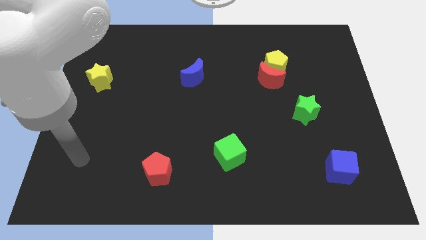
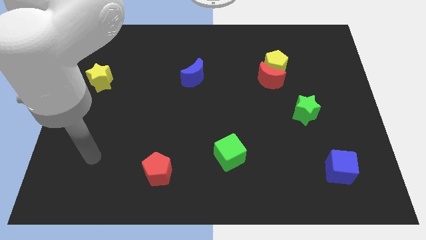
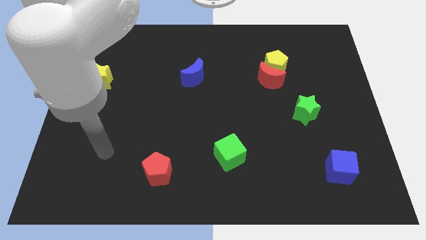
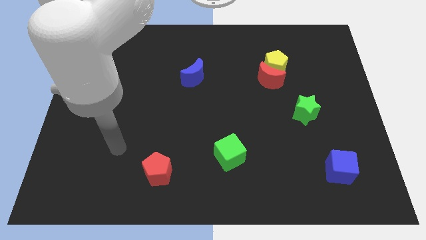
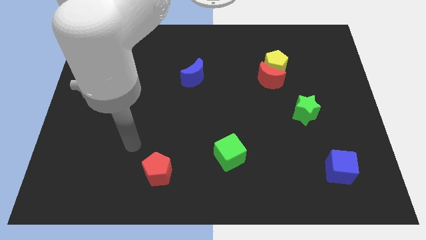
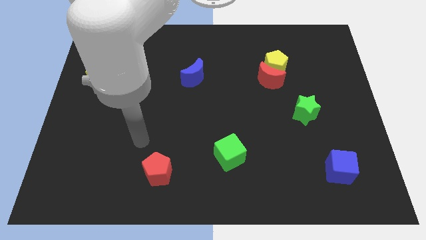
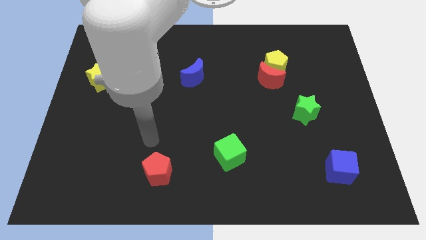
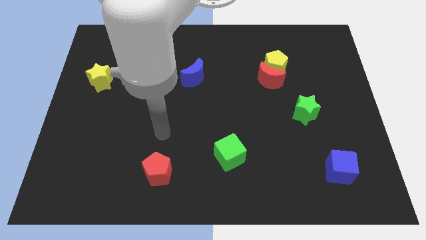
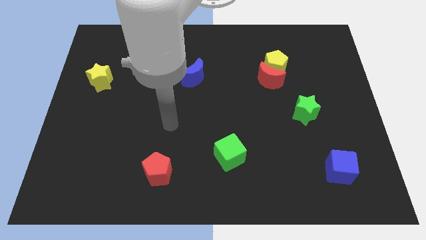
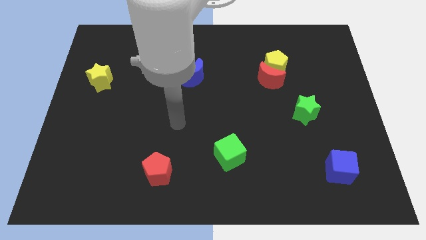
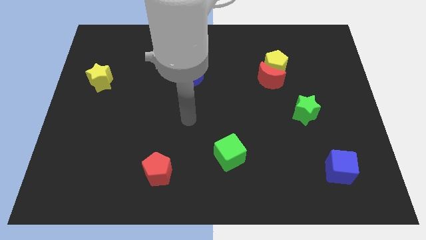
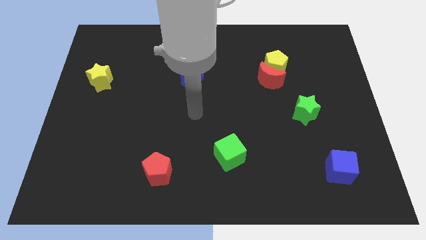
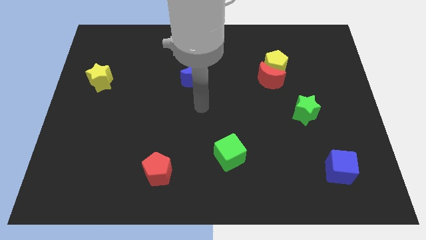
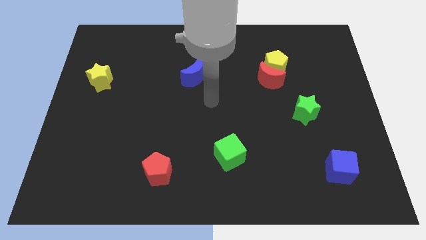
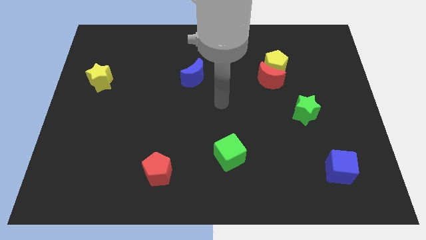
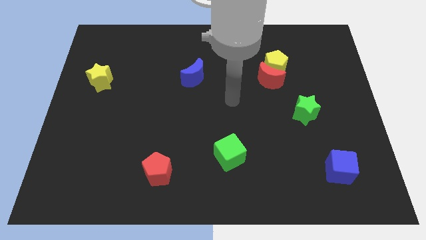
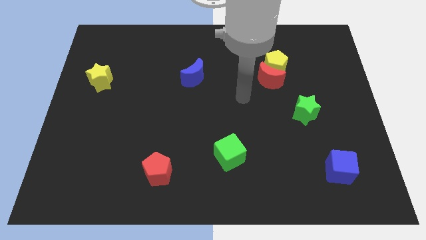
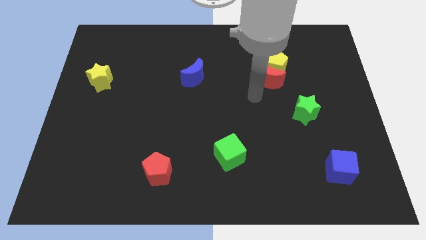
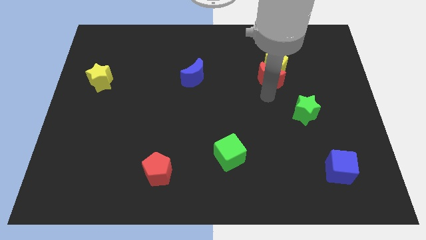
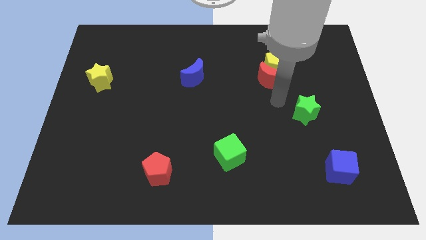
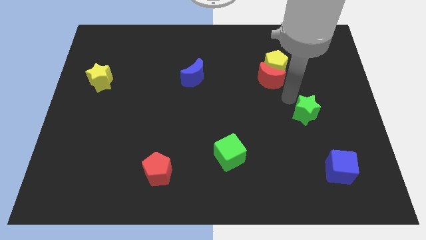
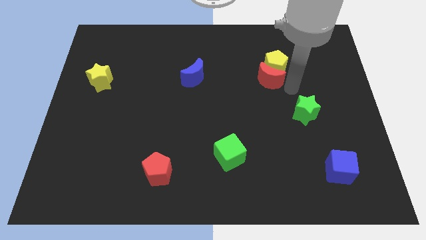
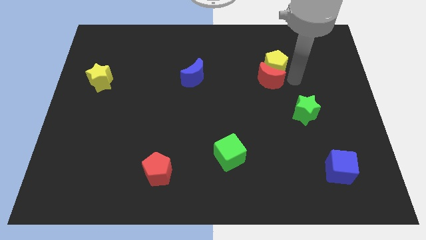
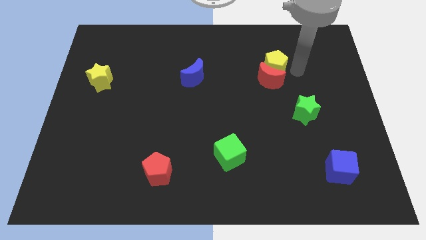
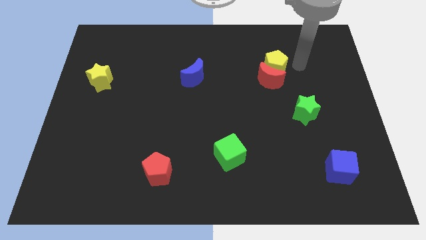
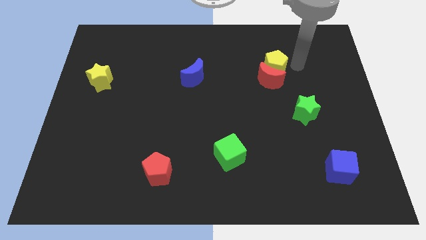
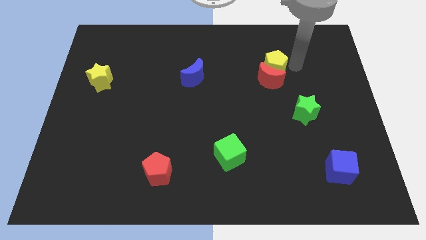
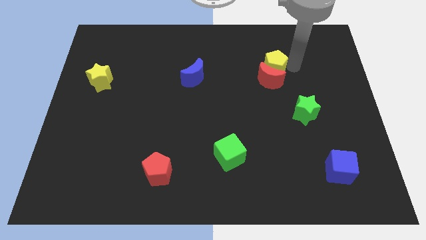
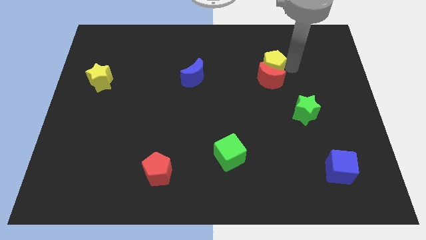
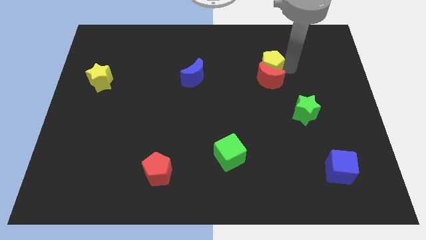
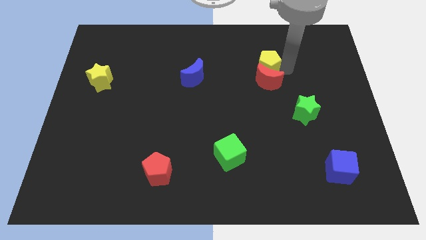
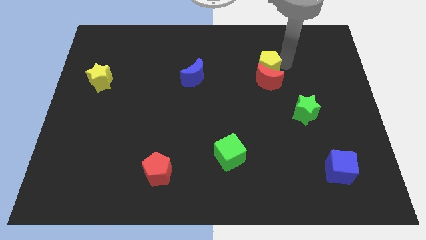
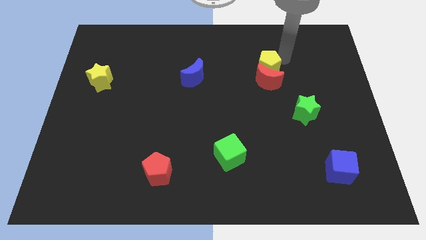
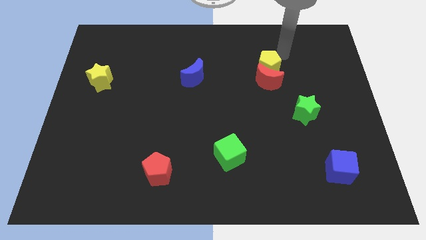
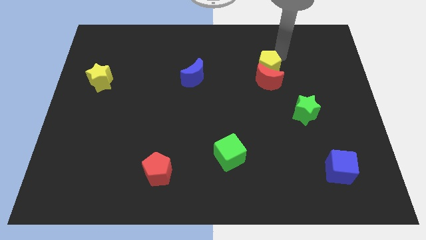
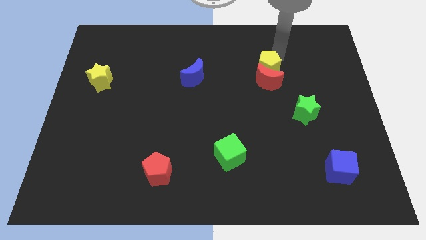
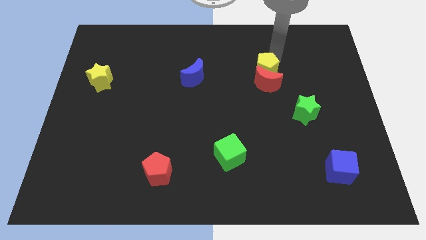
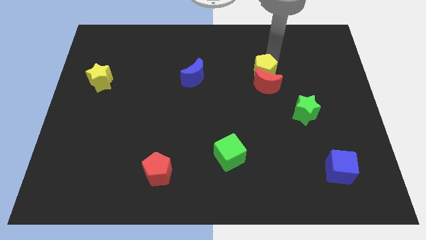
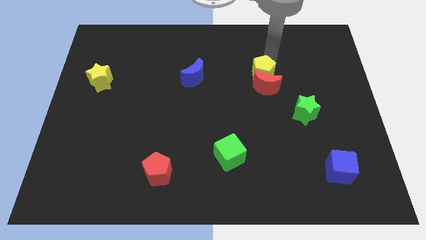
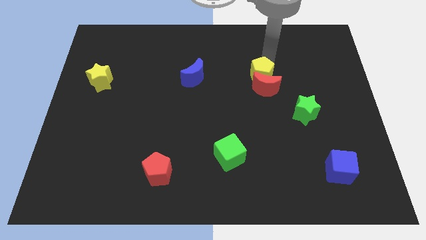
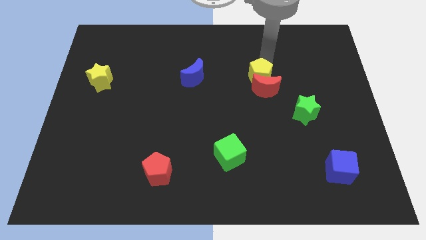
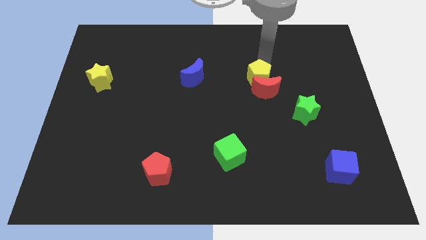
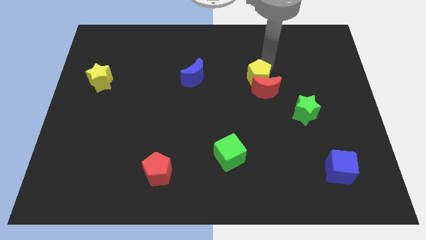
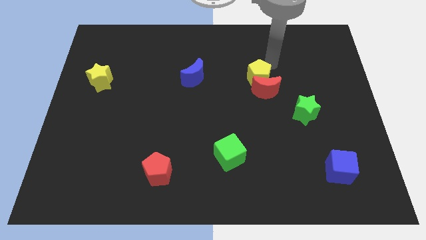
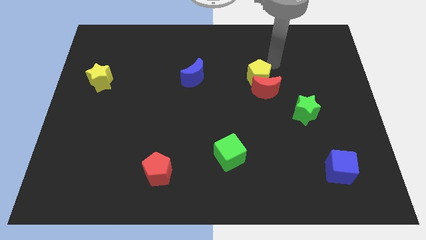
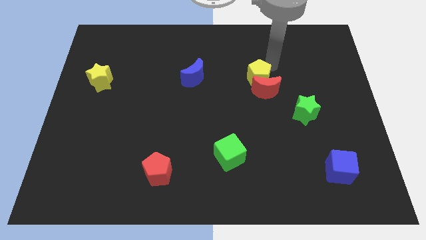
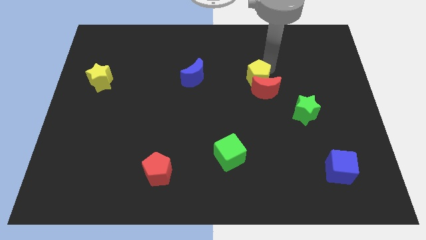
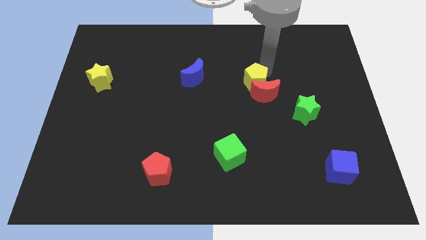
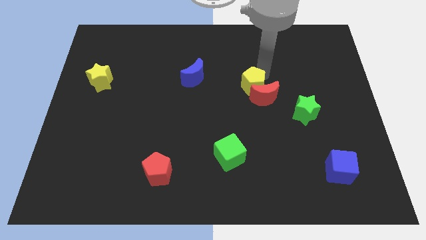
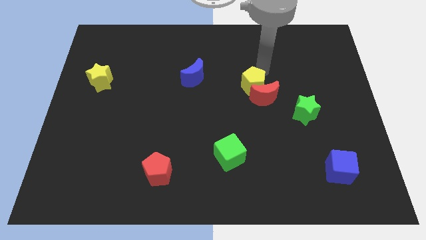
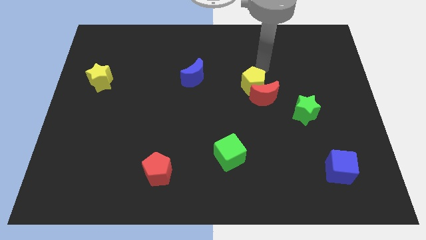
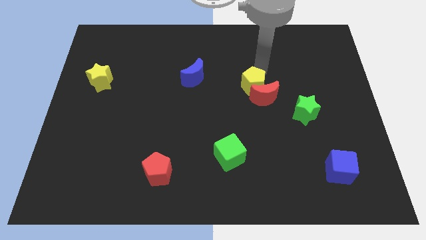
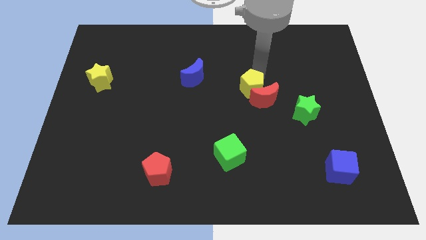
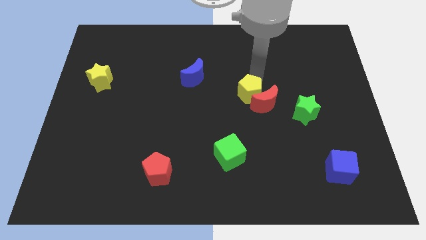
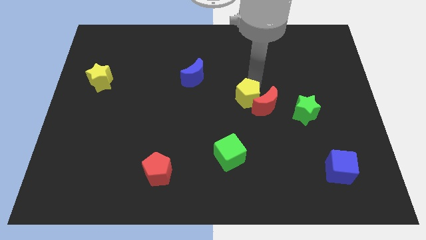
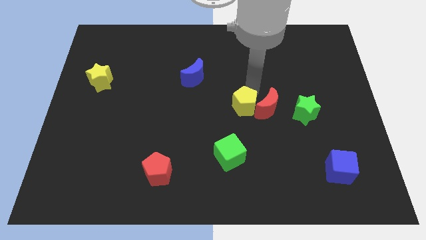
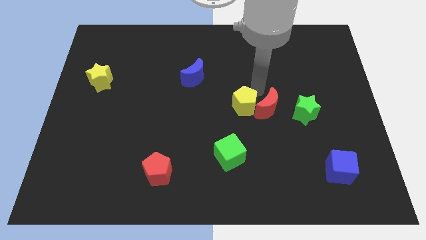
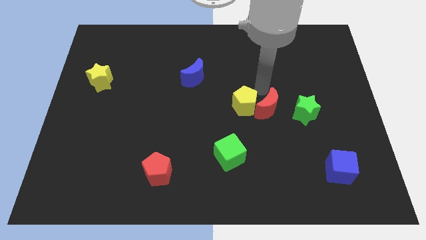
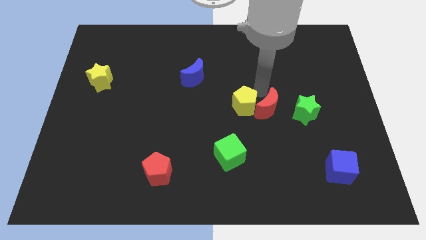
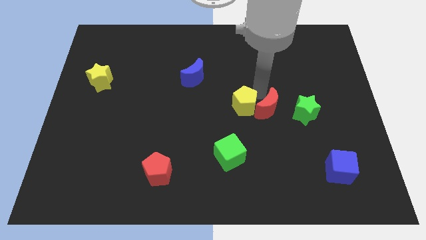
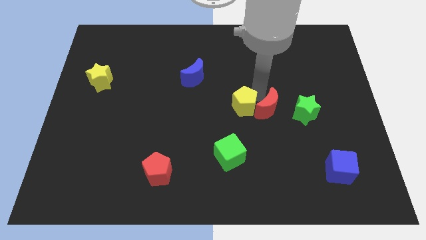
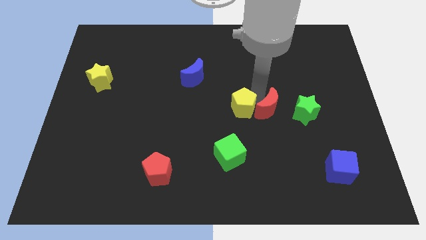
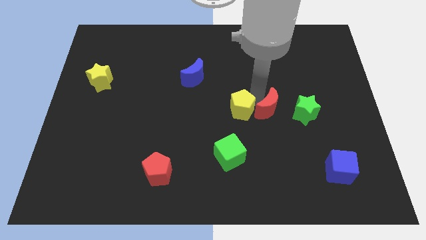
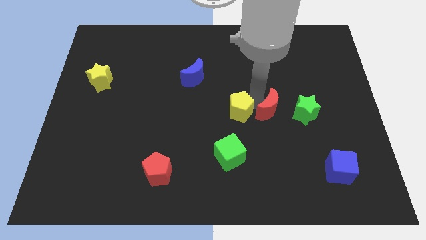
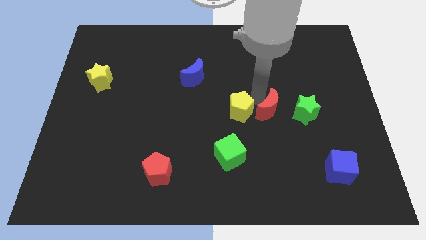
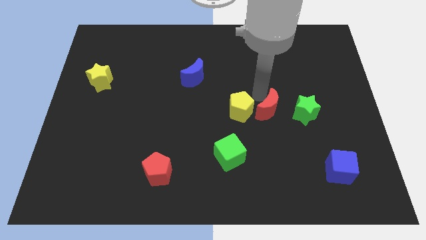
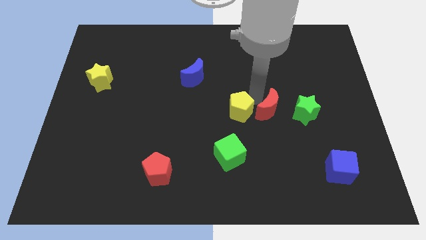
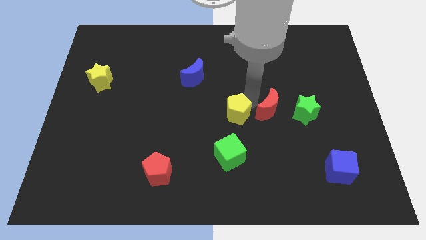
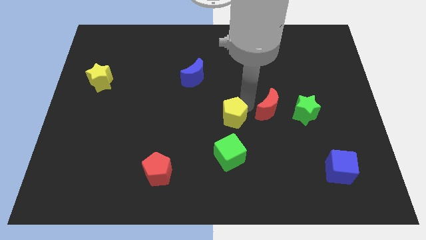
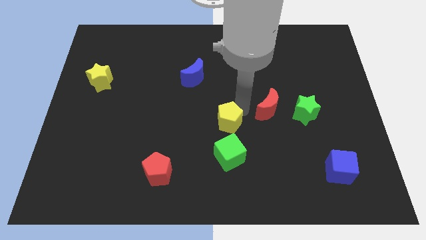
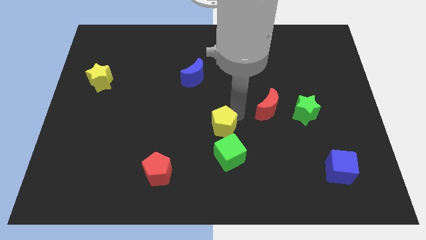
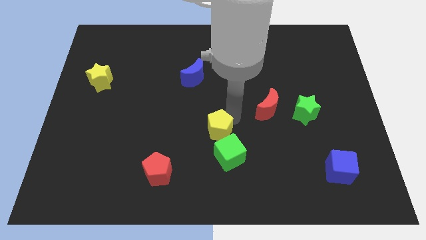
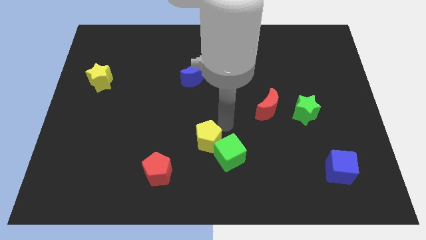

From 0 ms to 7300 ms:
move the yellow pentagon just left of the green cube

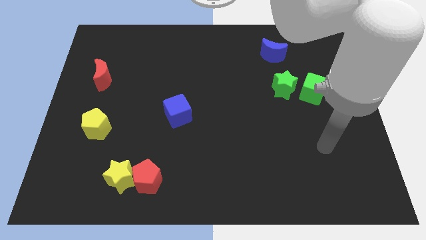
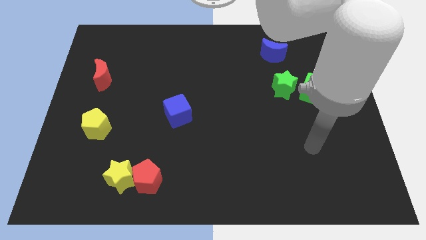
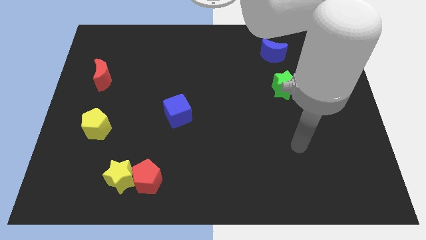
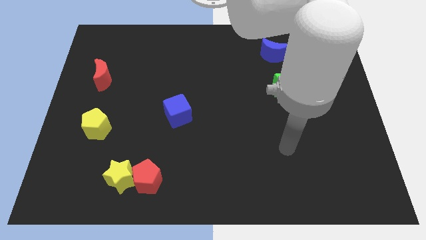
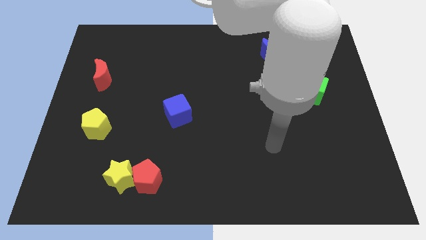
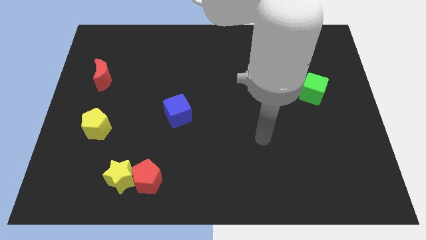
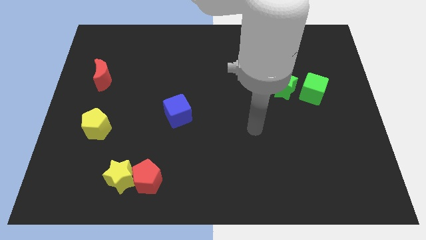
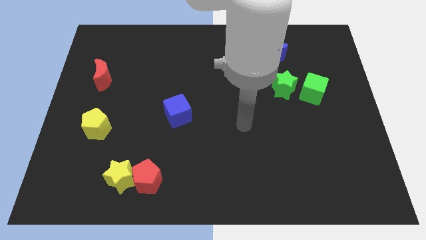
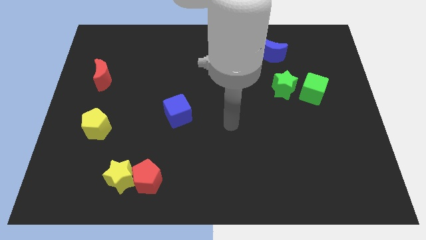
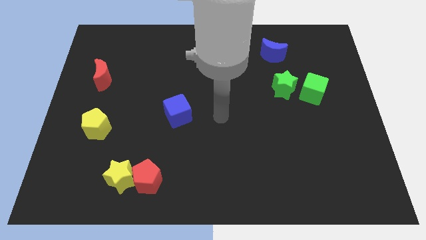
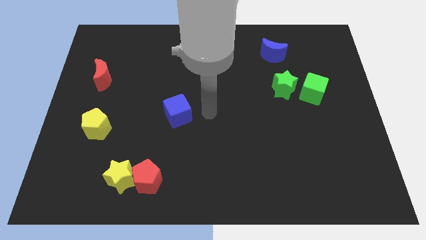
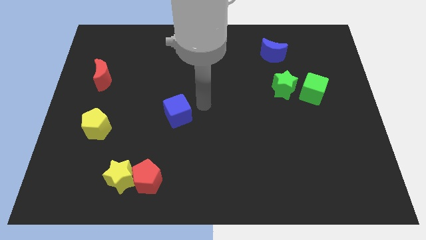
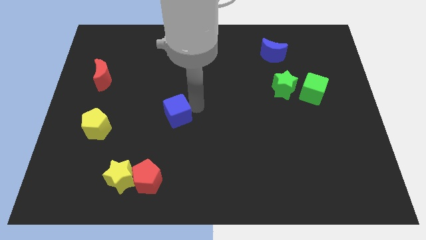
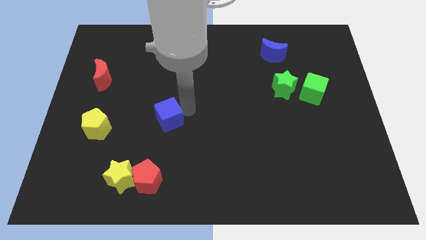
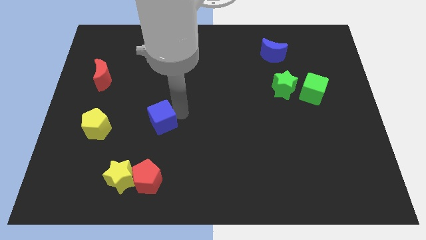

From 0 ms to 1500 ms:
slide the blue cube just right of the yellow pentagon
